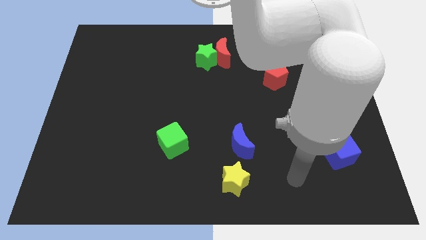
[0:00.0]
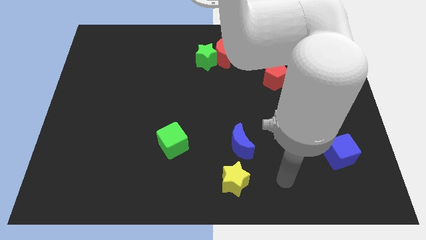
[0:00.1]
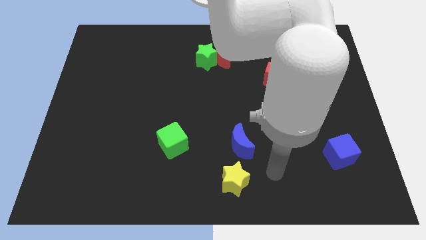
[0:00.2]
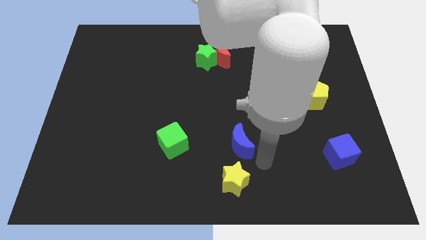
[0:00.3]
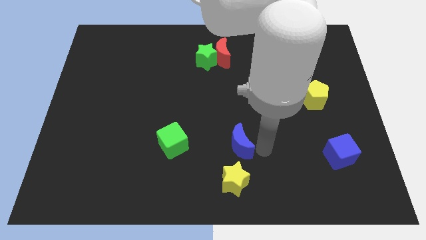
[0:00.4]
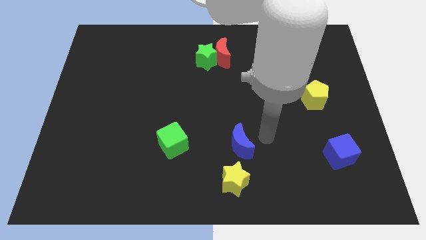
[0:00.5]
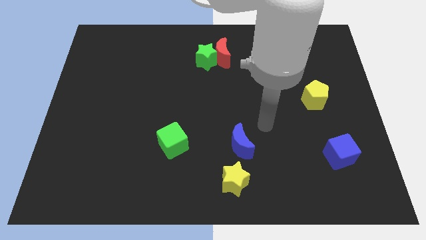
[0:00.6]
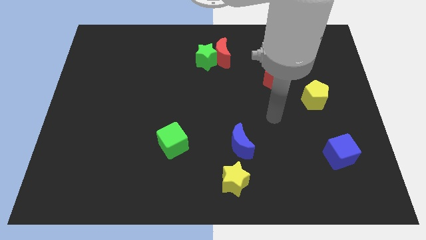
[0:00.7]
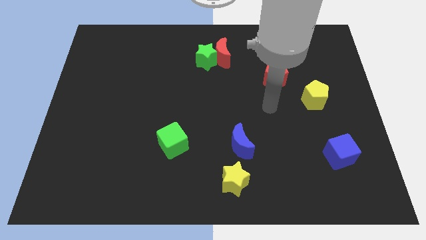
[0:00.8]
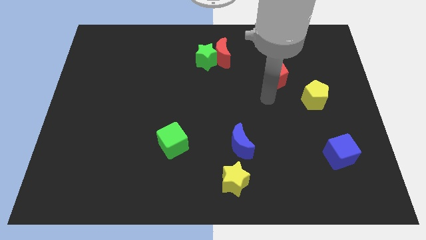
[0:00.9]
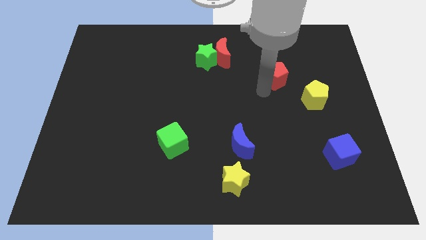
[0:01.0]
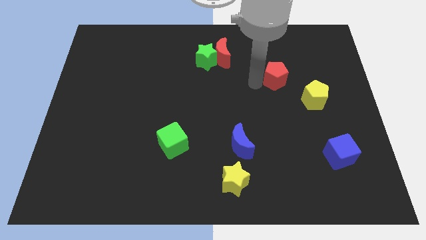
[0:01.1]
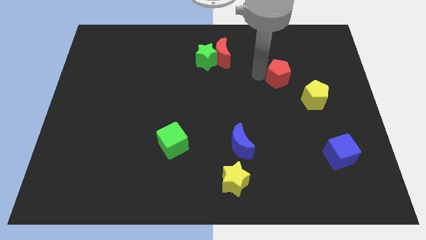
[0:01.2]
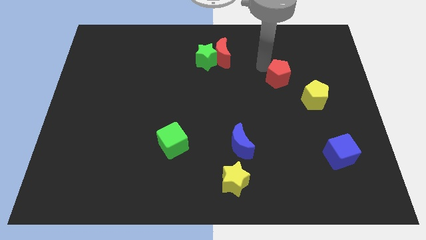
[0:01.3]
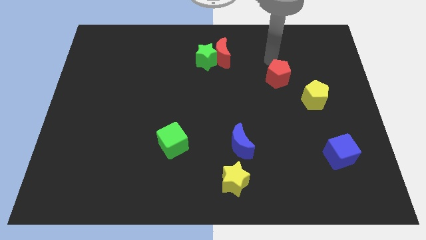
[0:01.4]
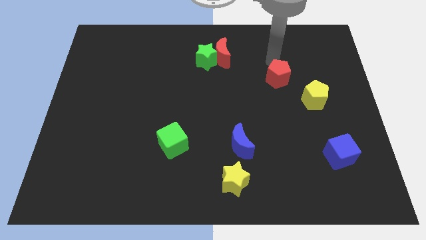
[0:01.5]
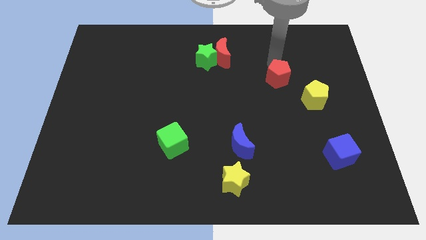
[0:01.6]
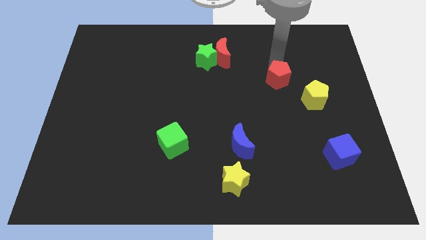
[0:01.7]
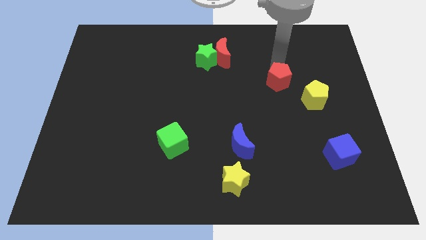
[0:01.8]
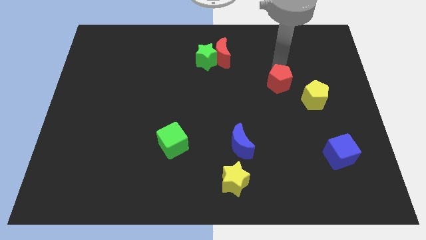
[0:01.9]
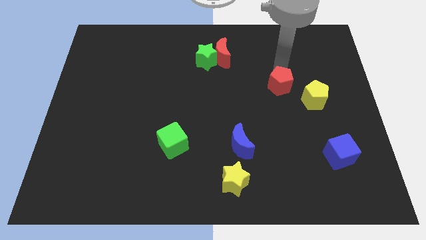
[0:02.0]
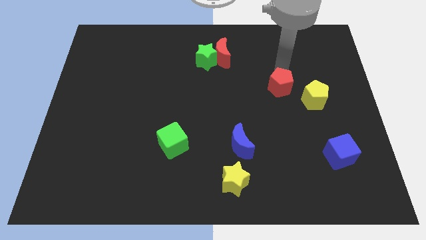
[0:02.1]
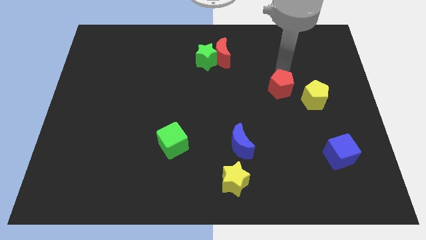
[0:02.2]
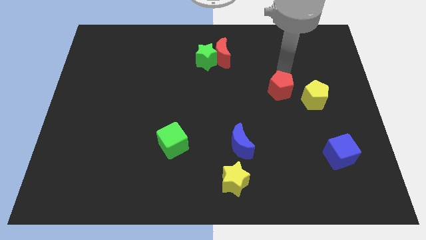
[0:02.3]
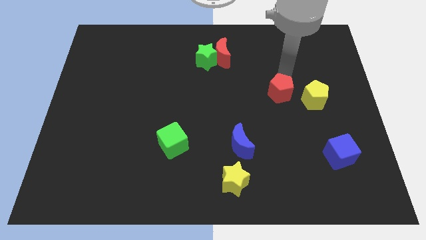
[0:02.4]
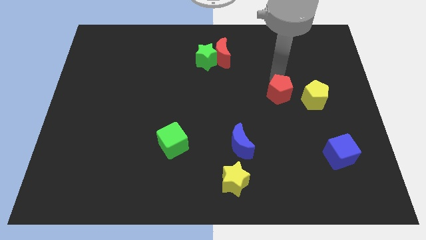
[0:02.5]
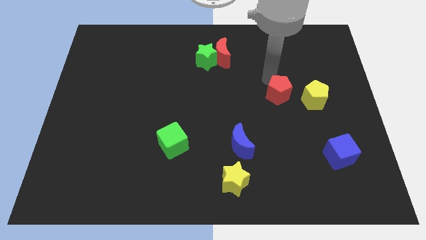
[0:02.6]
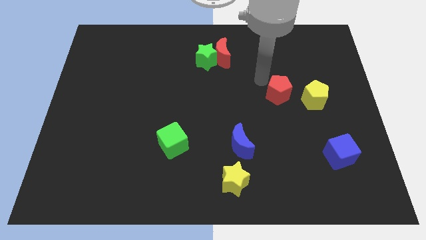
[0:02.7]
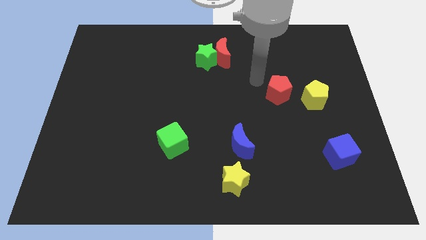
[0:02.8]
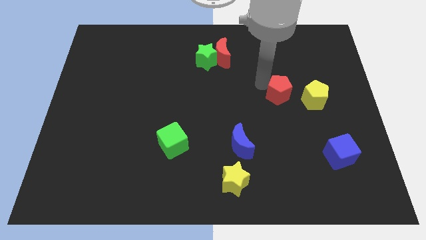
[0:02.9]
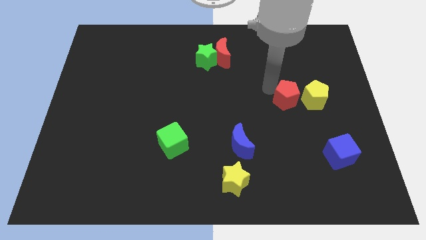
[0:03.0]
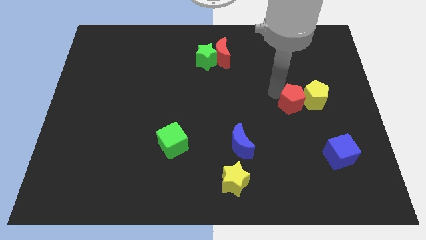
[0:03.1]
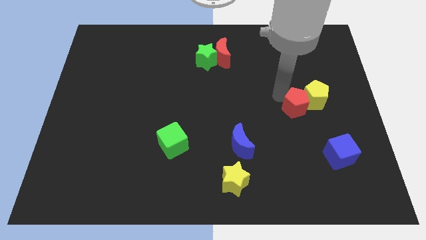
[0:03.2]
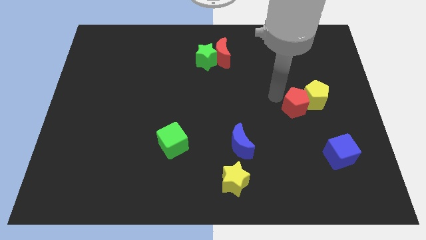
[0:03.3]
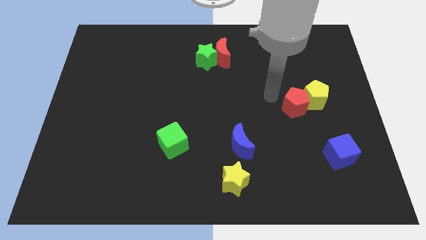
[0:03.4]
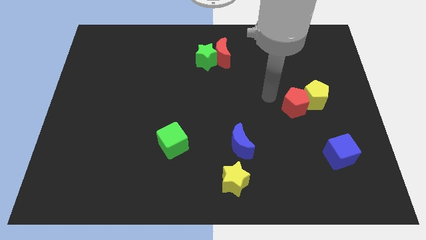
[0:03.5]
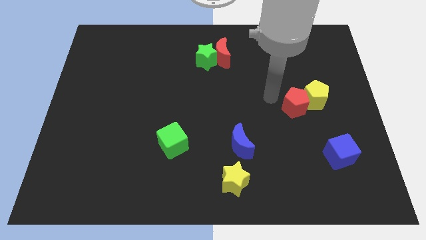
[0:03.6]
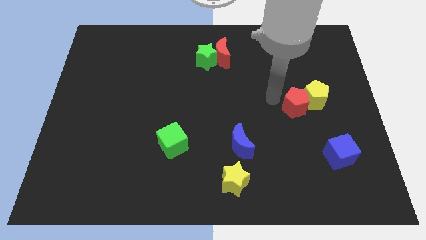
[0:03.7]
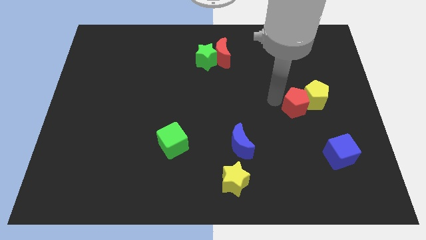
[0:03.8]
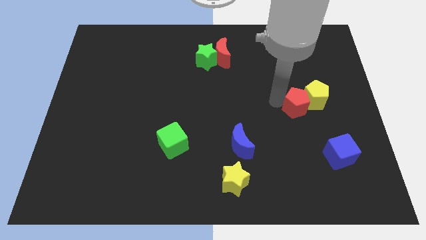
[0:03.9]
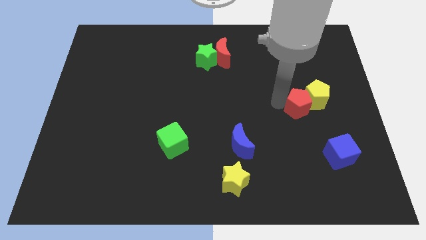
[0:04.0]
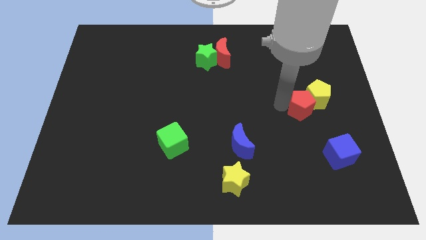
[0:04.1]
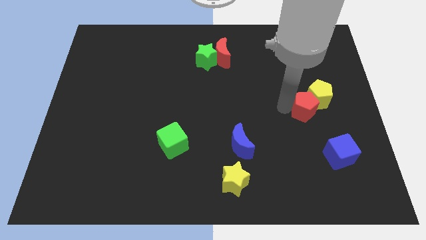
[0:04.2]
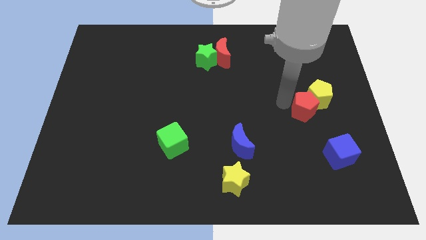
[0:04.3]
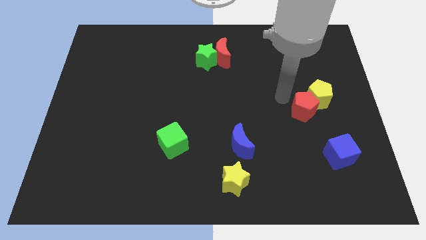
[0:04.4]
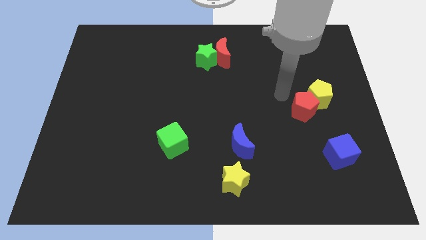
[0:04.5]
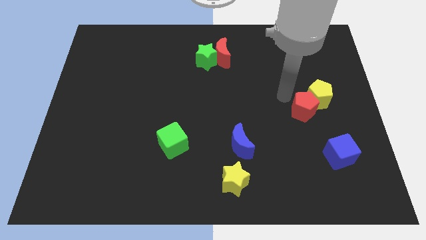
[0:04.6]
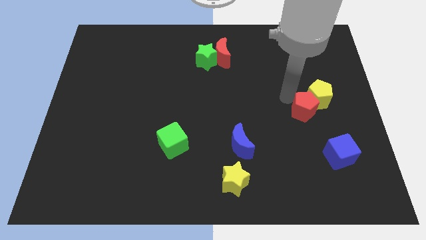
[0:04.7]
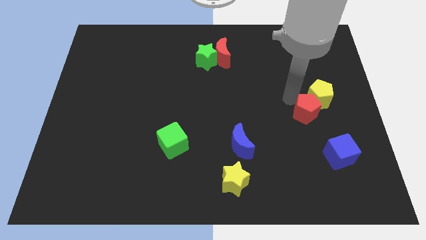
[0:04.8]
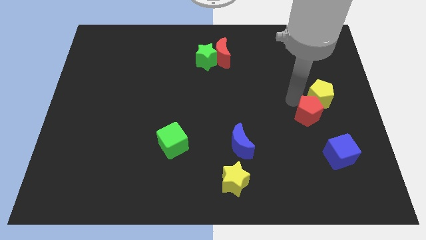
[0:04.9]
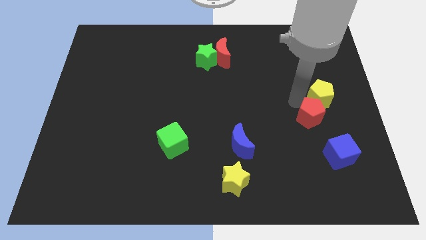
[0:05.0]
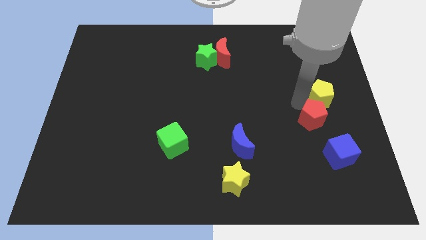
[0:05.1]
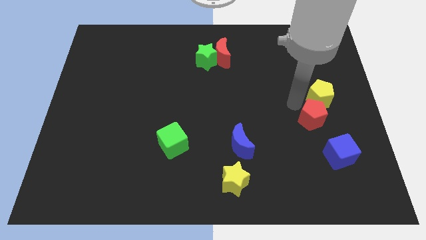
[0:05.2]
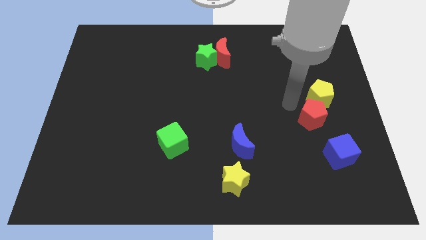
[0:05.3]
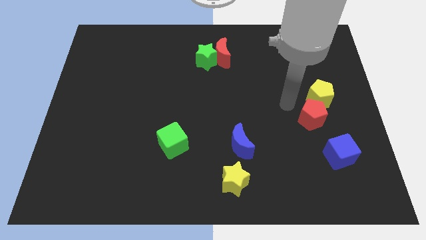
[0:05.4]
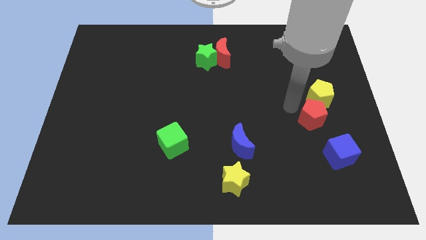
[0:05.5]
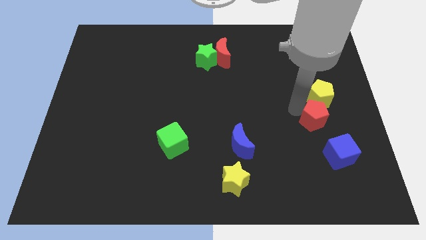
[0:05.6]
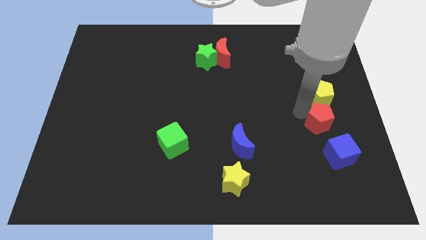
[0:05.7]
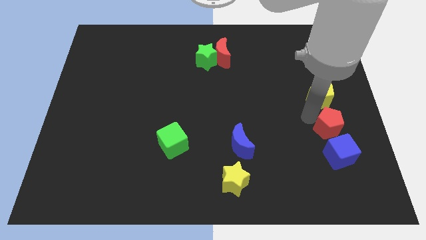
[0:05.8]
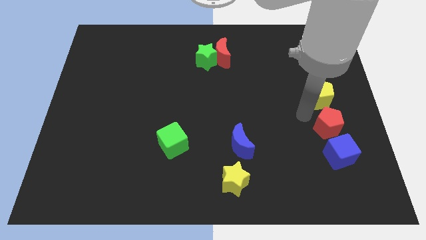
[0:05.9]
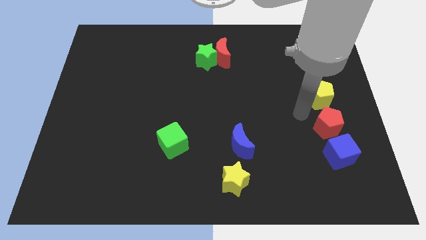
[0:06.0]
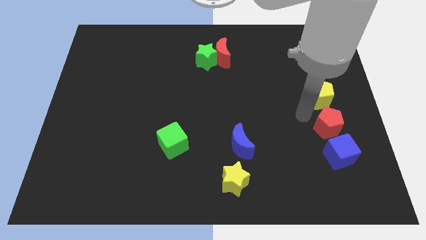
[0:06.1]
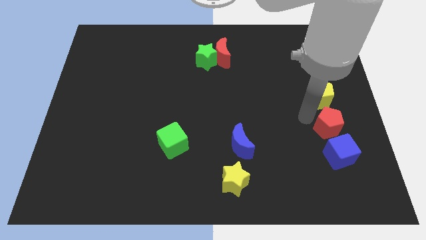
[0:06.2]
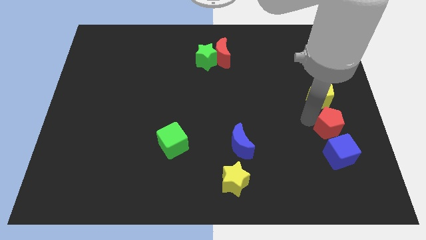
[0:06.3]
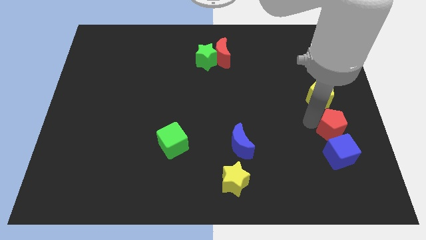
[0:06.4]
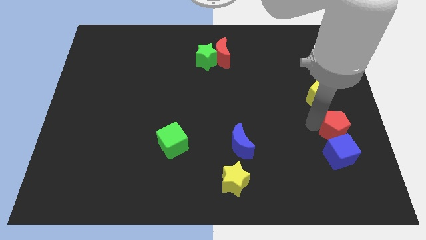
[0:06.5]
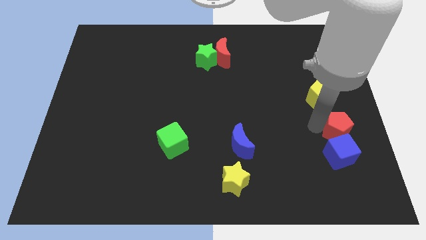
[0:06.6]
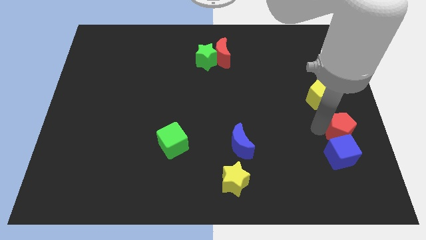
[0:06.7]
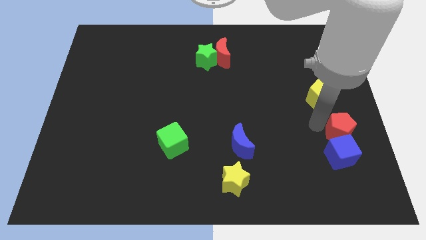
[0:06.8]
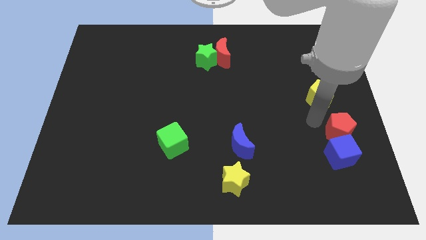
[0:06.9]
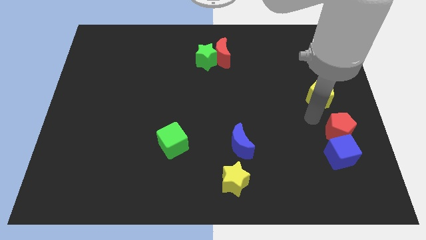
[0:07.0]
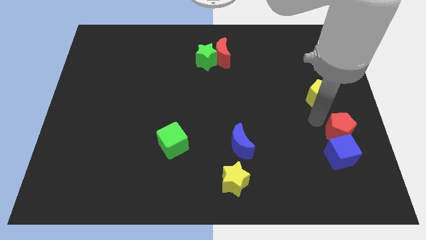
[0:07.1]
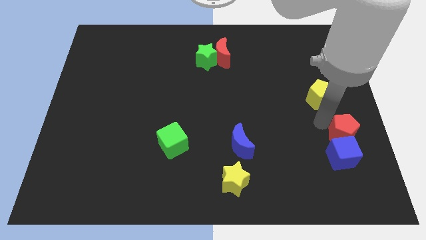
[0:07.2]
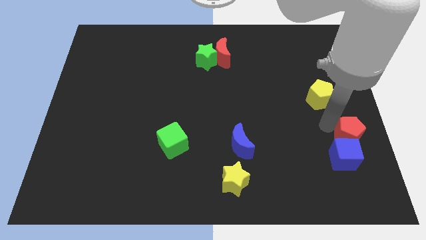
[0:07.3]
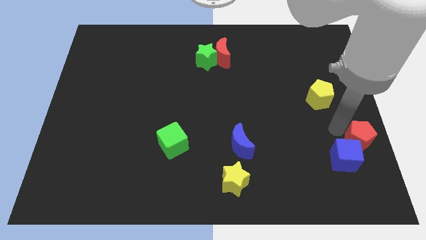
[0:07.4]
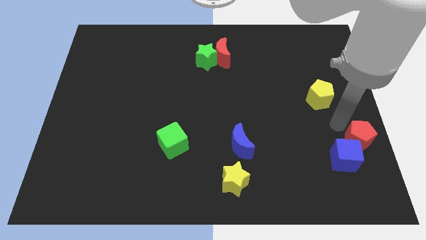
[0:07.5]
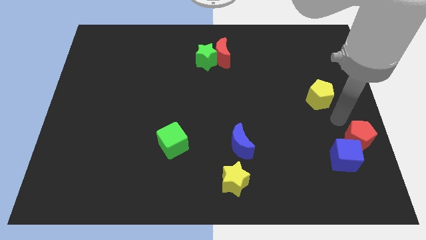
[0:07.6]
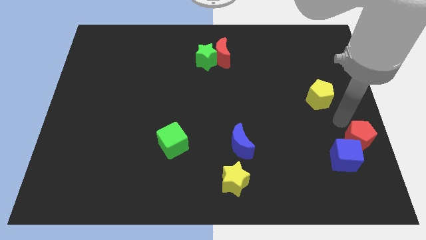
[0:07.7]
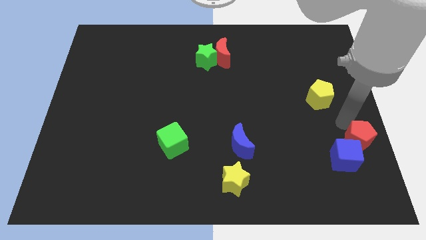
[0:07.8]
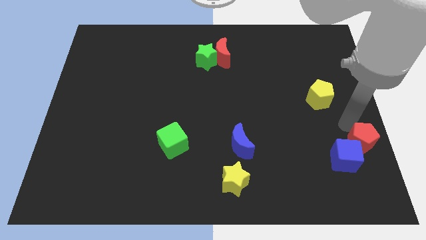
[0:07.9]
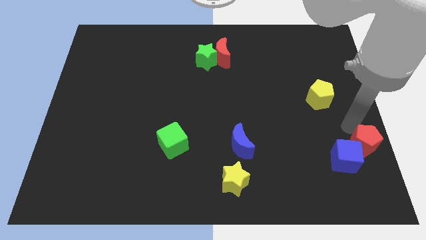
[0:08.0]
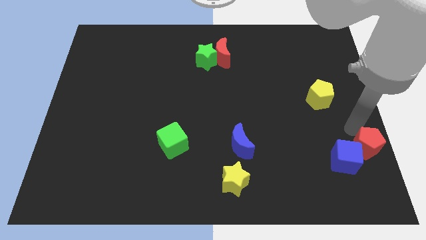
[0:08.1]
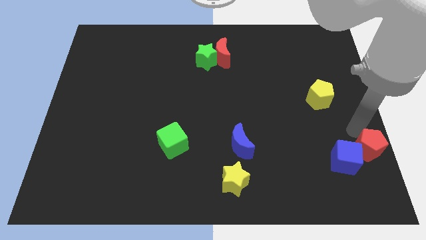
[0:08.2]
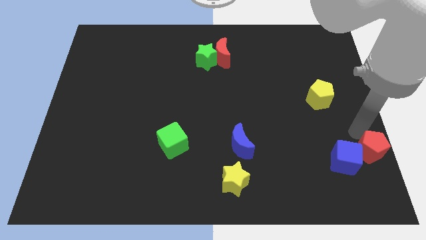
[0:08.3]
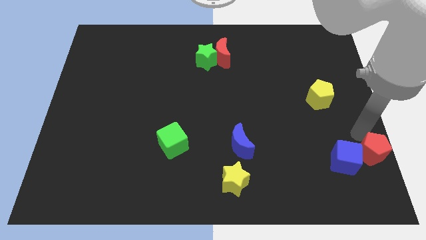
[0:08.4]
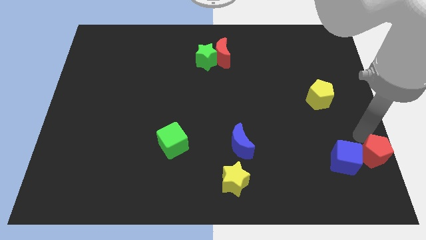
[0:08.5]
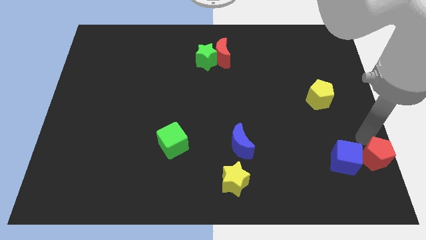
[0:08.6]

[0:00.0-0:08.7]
move the red pentagon to the bottom right of the board
